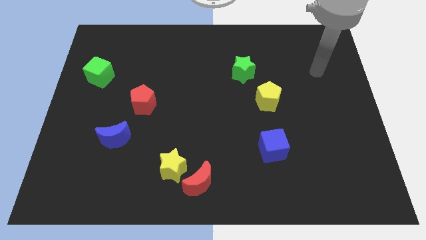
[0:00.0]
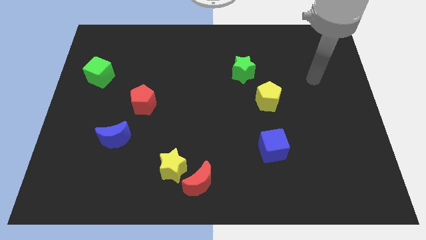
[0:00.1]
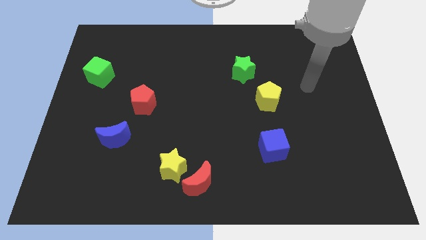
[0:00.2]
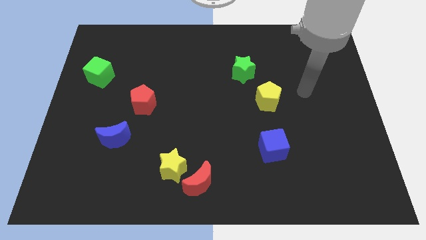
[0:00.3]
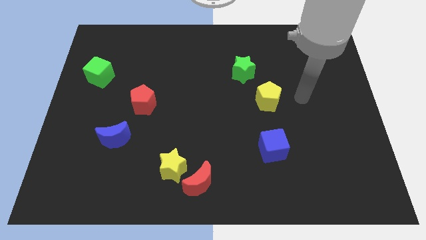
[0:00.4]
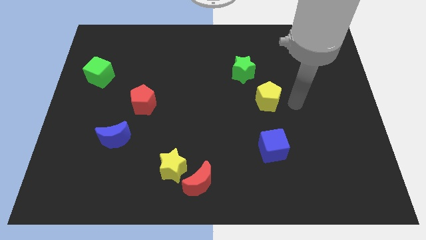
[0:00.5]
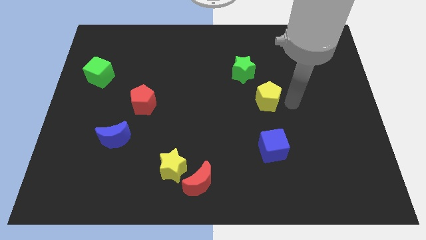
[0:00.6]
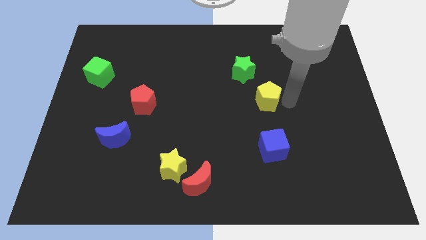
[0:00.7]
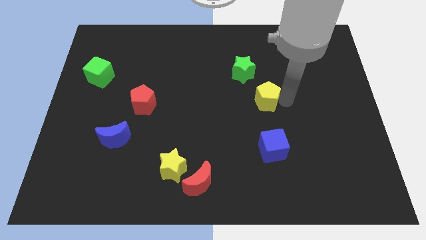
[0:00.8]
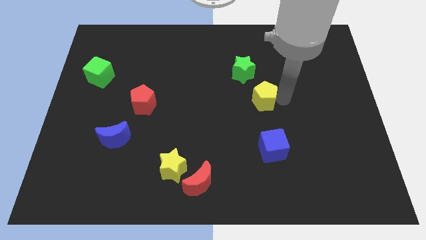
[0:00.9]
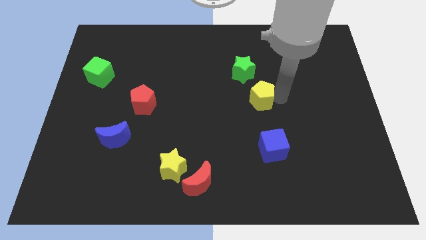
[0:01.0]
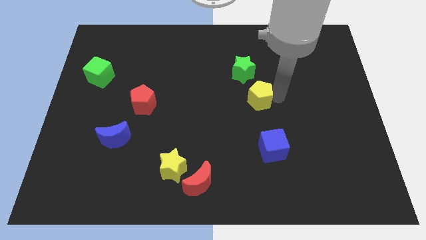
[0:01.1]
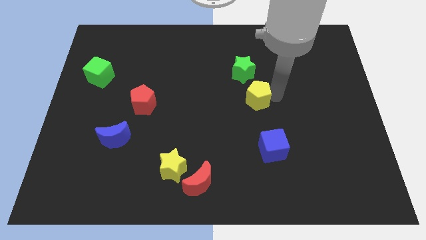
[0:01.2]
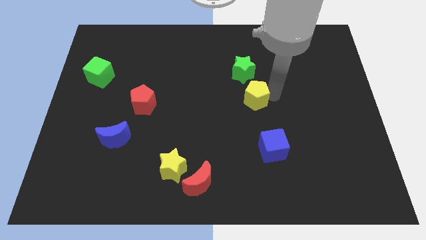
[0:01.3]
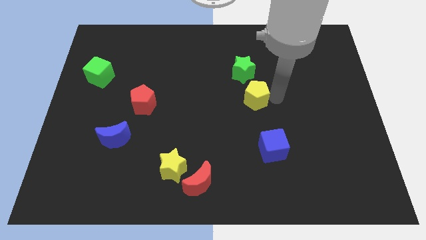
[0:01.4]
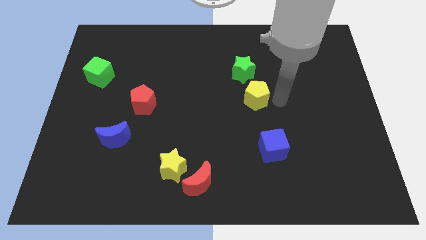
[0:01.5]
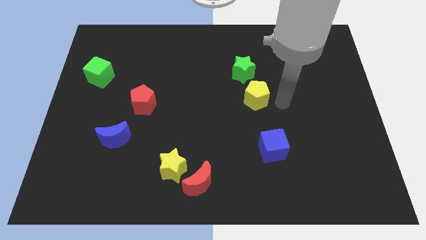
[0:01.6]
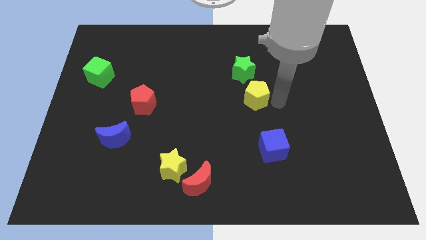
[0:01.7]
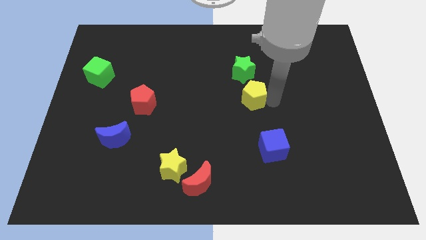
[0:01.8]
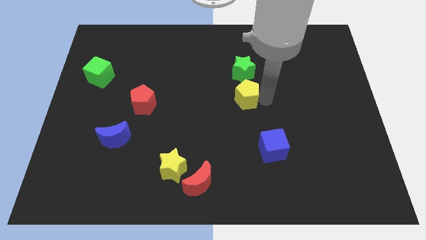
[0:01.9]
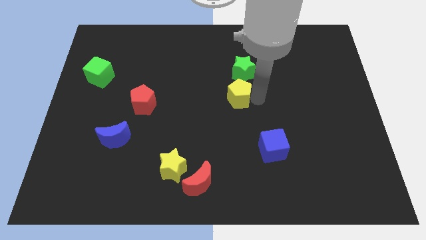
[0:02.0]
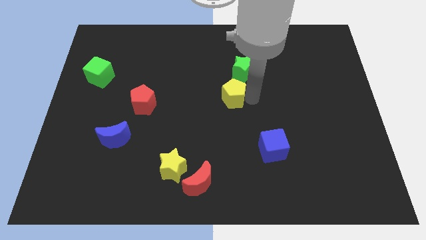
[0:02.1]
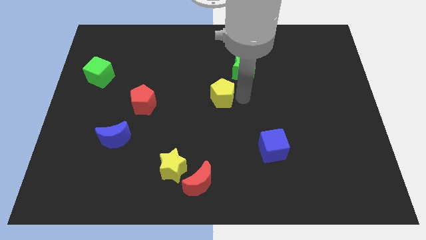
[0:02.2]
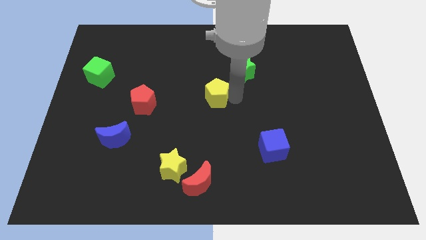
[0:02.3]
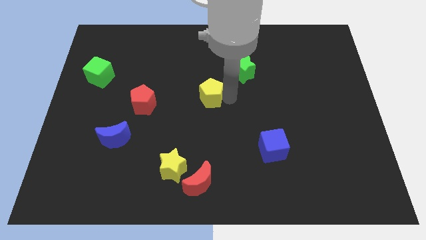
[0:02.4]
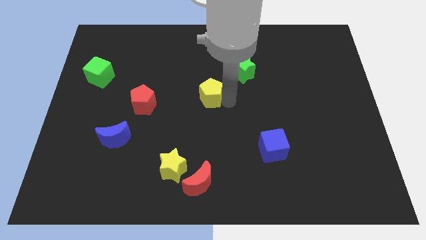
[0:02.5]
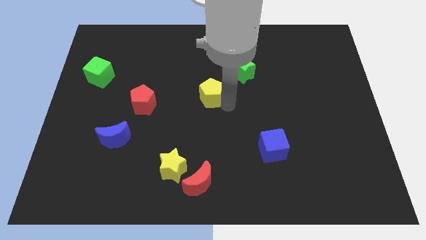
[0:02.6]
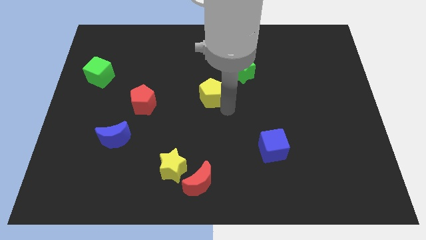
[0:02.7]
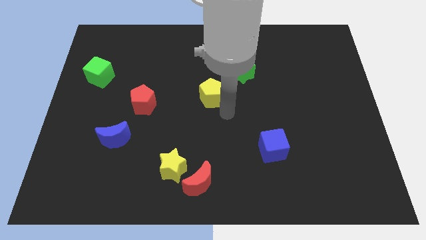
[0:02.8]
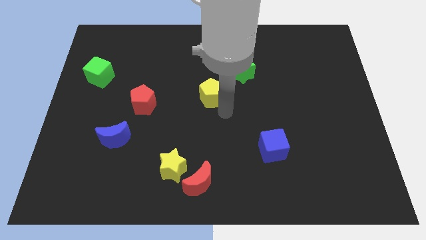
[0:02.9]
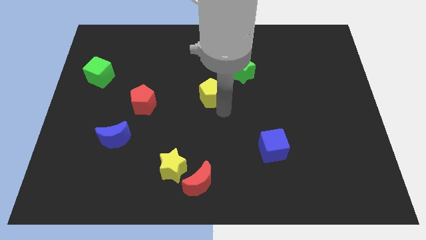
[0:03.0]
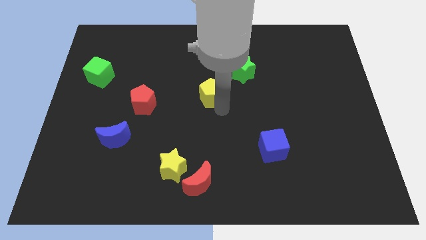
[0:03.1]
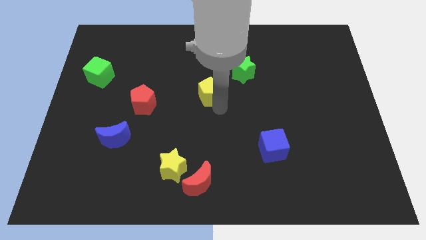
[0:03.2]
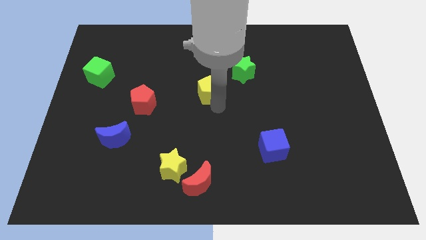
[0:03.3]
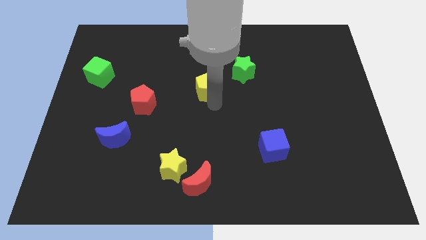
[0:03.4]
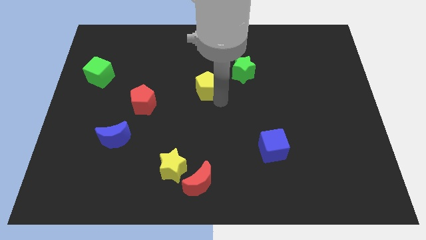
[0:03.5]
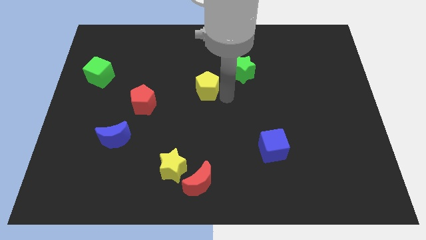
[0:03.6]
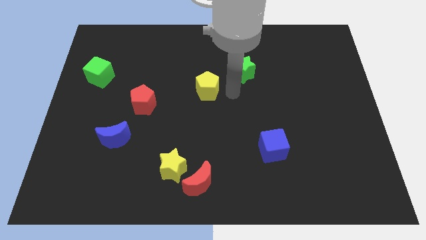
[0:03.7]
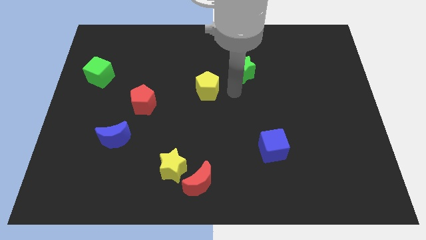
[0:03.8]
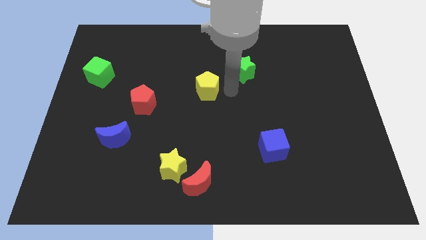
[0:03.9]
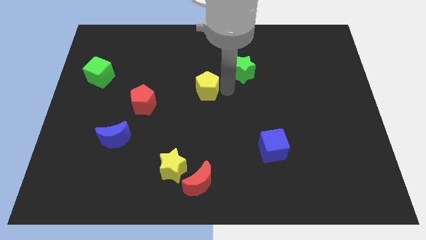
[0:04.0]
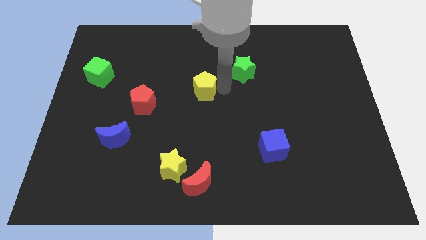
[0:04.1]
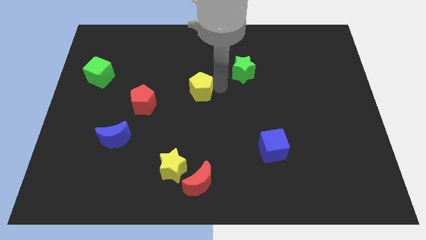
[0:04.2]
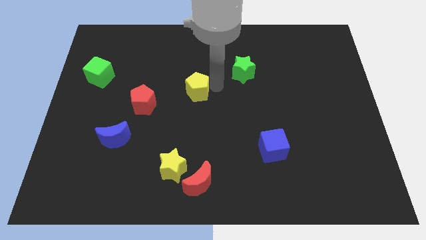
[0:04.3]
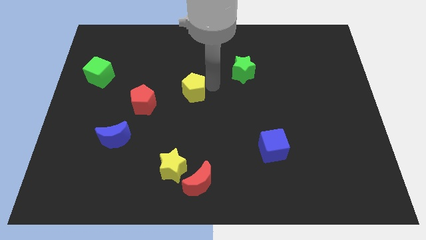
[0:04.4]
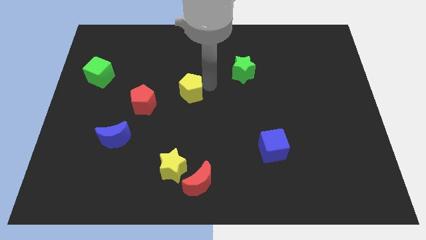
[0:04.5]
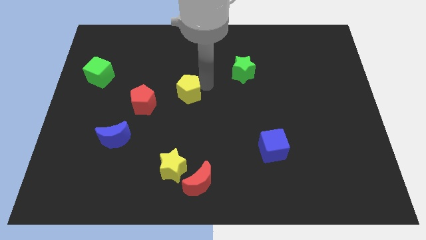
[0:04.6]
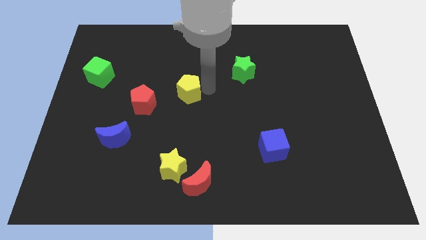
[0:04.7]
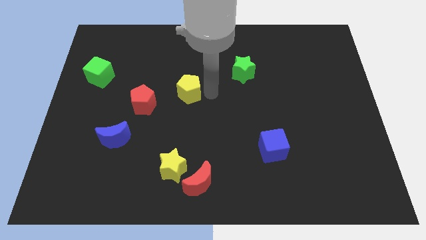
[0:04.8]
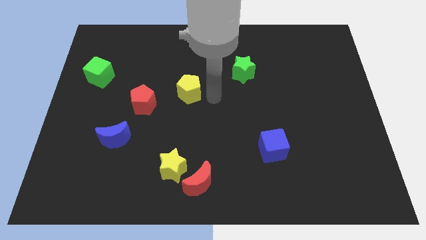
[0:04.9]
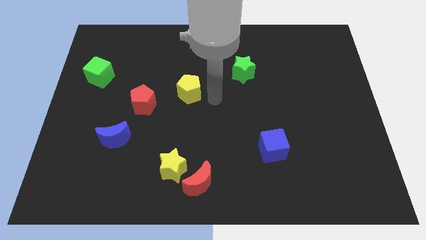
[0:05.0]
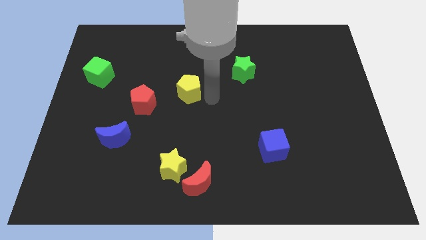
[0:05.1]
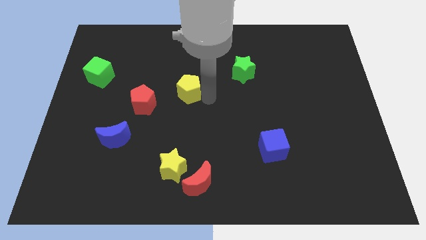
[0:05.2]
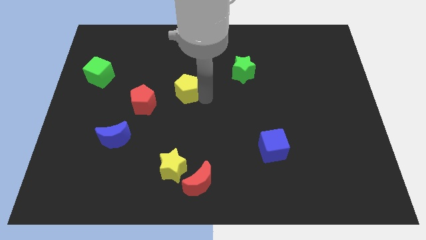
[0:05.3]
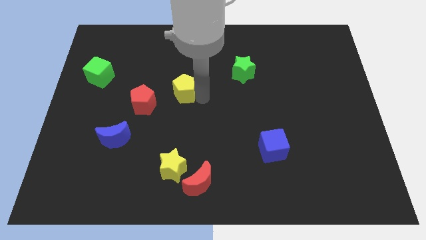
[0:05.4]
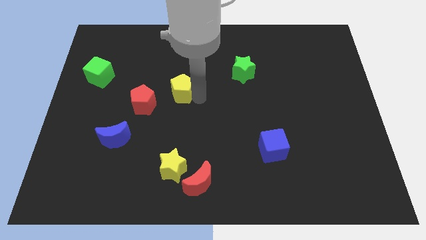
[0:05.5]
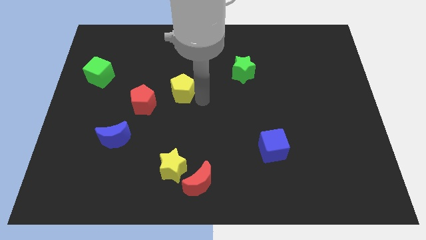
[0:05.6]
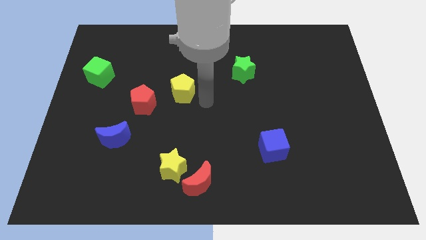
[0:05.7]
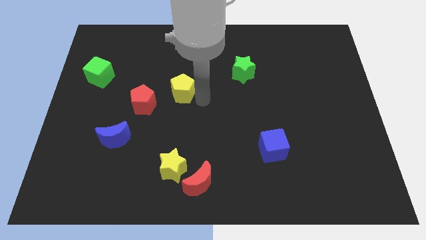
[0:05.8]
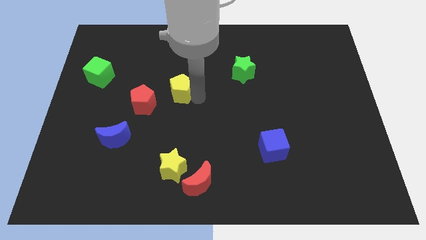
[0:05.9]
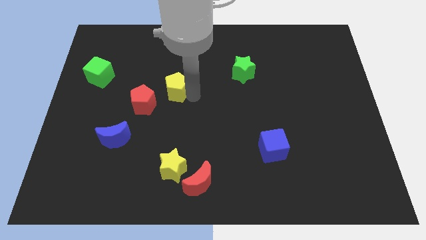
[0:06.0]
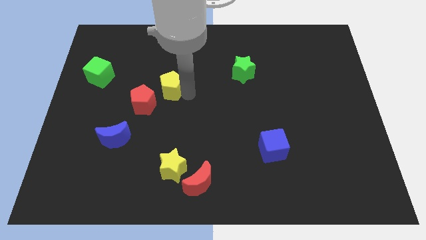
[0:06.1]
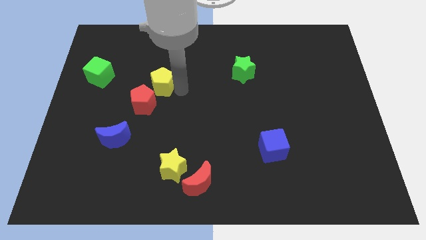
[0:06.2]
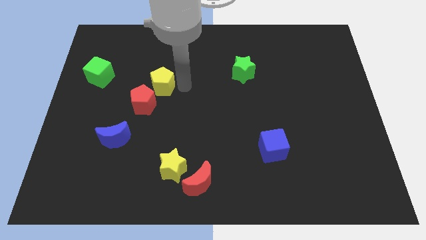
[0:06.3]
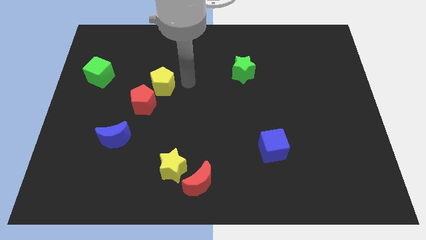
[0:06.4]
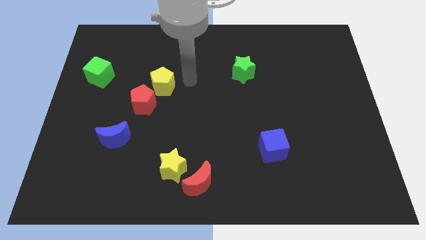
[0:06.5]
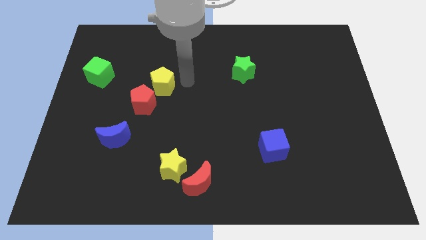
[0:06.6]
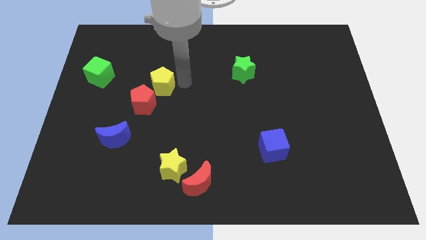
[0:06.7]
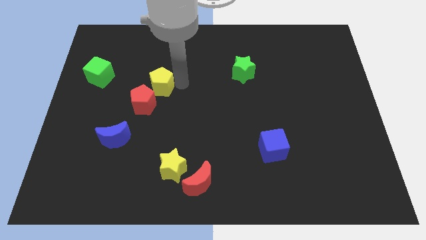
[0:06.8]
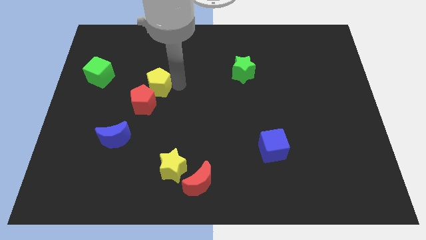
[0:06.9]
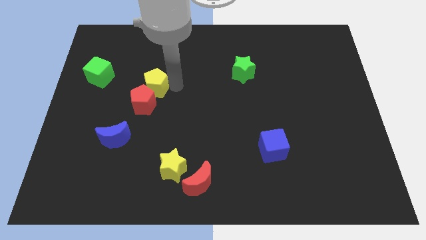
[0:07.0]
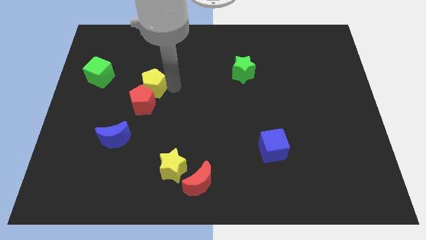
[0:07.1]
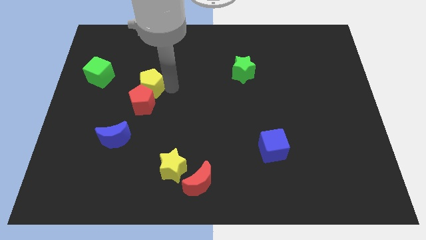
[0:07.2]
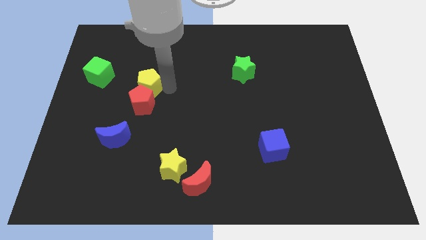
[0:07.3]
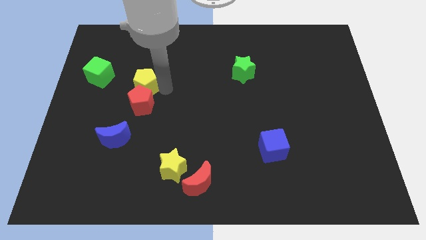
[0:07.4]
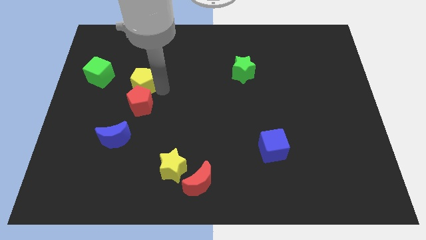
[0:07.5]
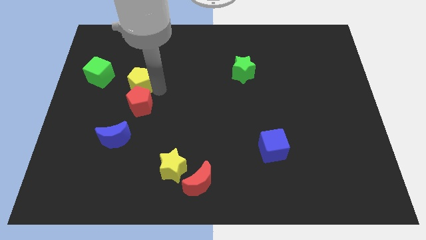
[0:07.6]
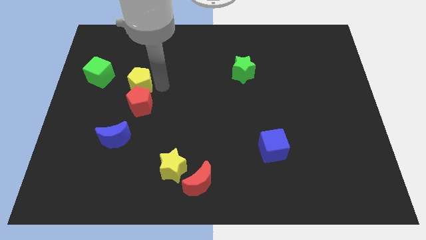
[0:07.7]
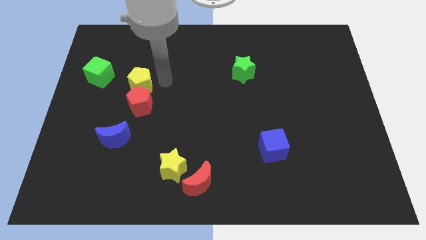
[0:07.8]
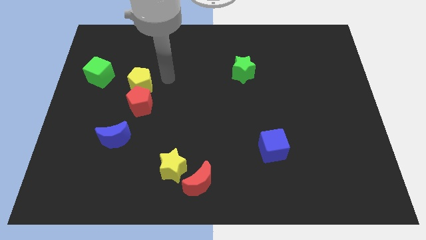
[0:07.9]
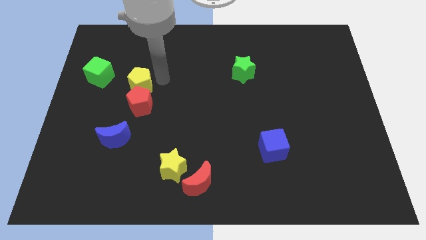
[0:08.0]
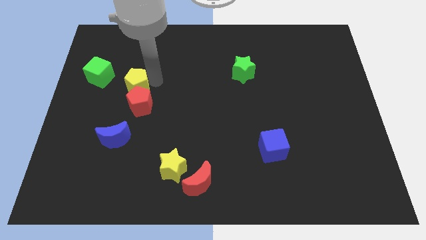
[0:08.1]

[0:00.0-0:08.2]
put the yellow pentagon to the bottom right side of the green cube
